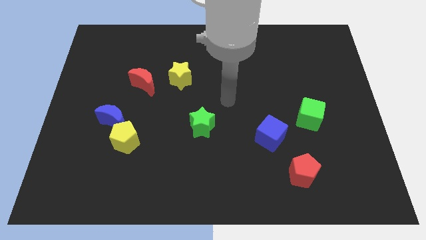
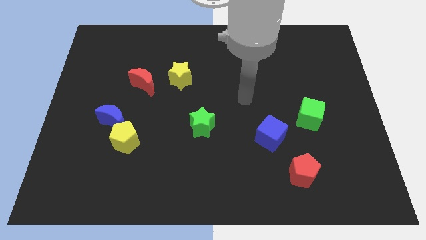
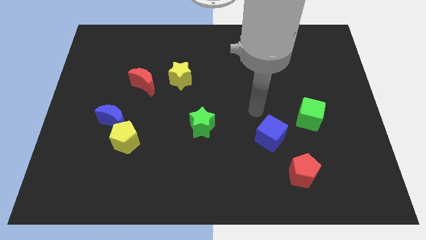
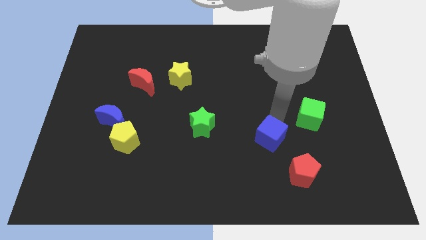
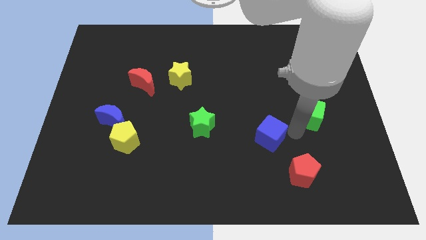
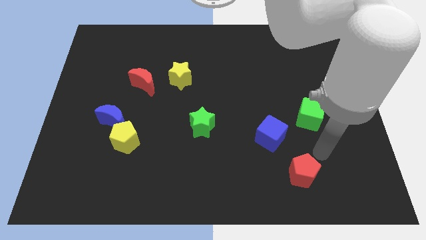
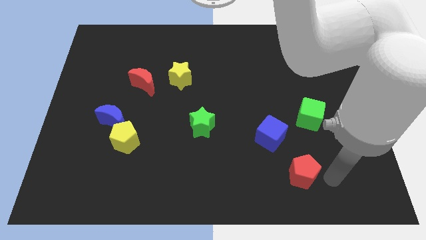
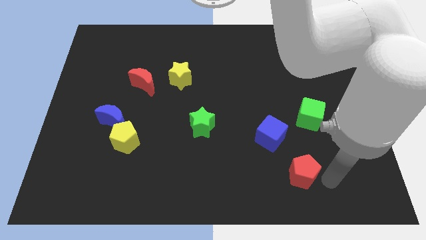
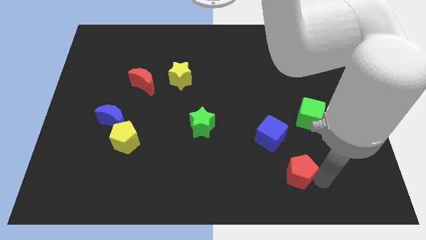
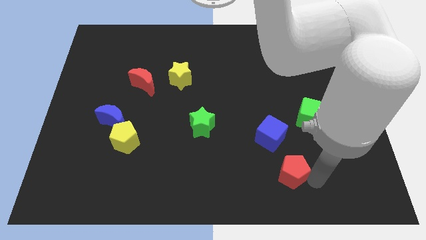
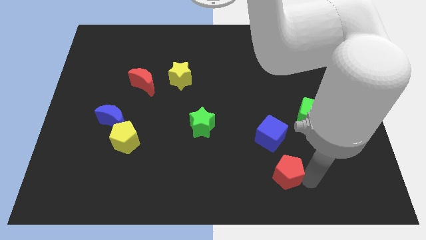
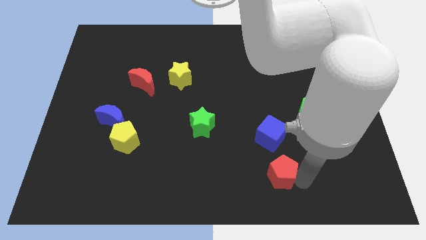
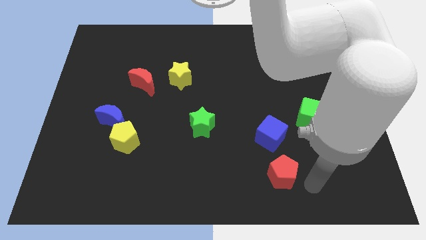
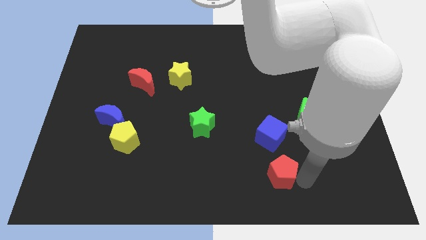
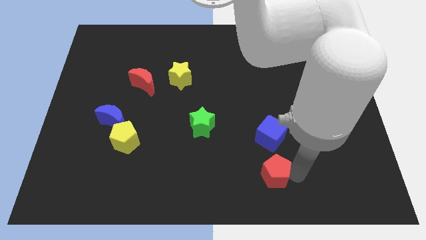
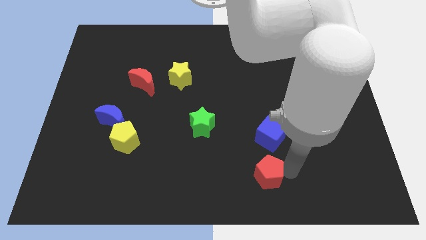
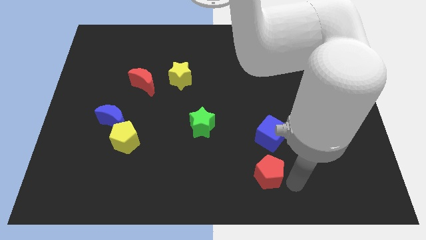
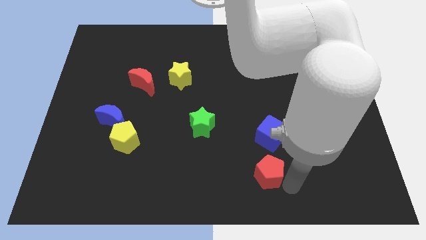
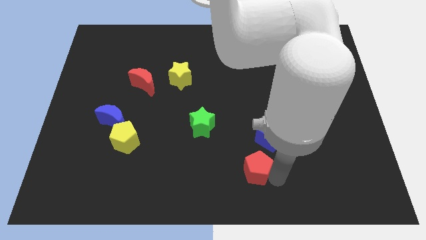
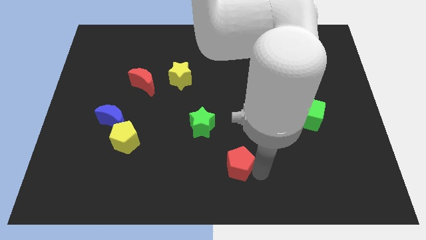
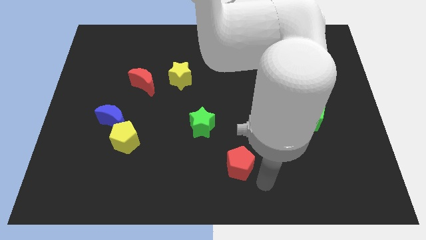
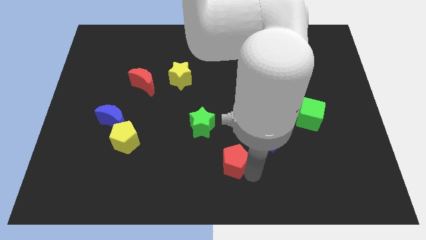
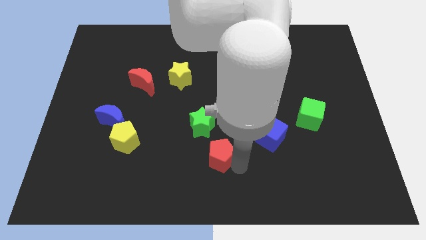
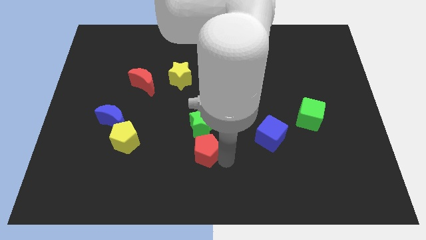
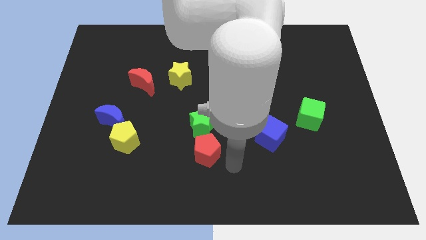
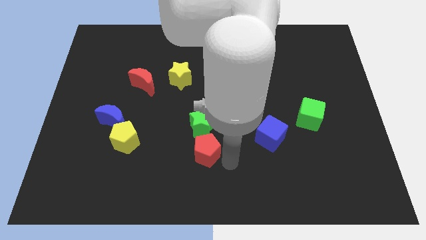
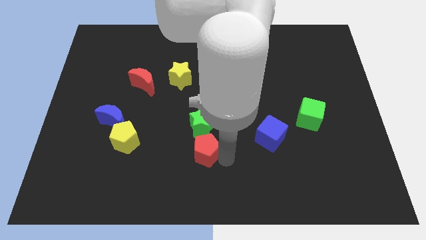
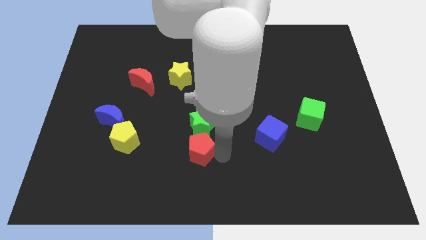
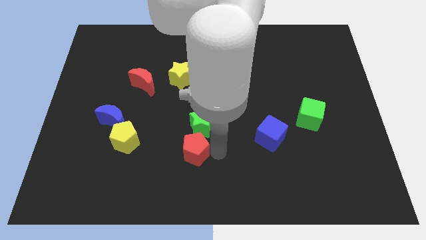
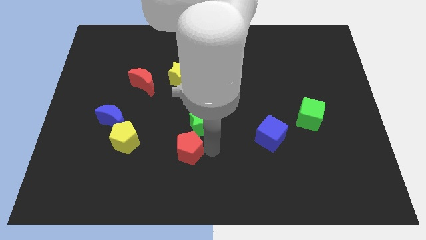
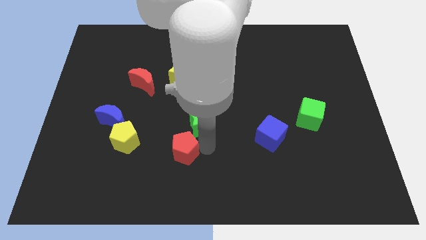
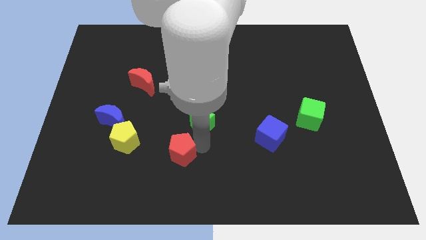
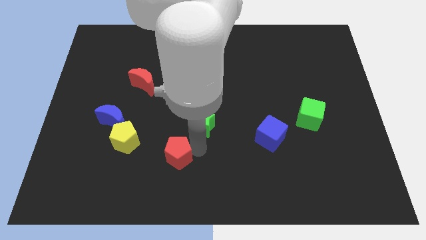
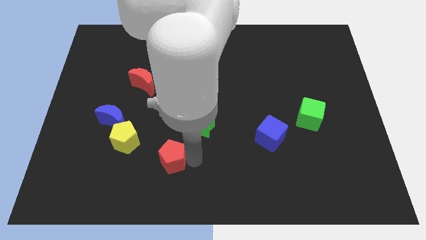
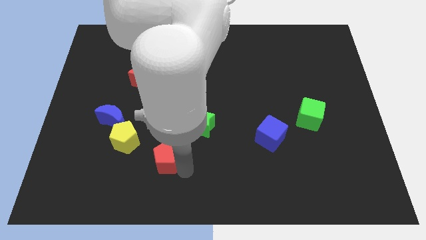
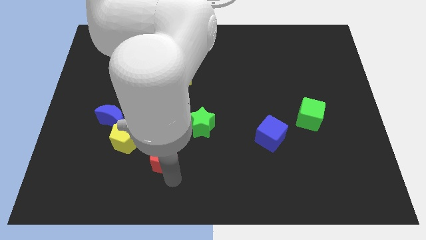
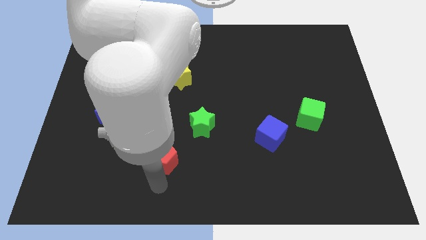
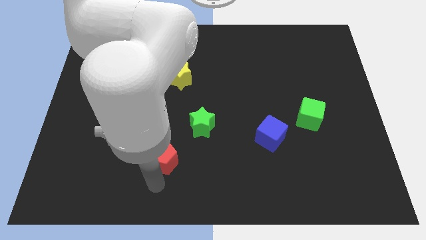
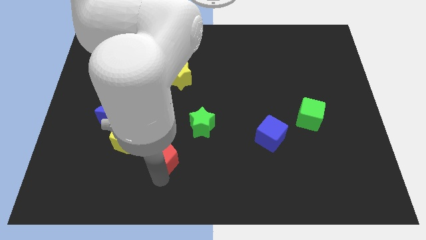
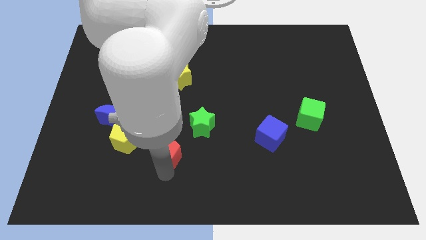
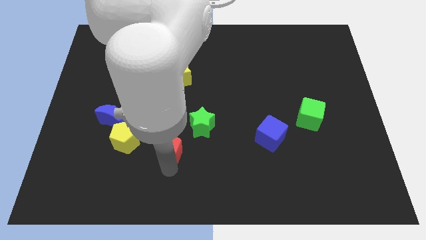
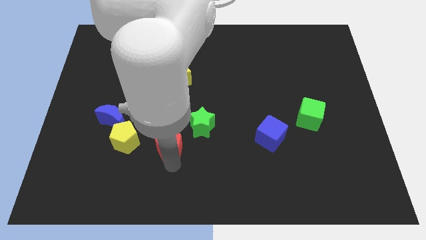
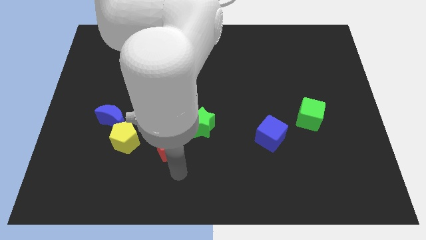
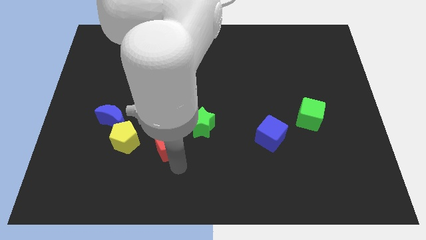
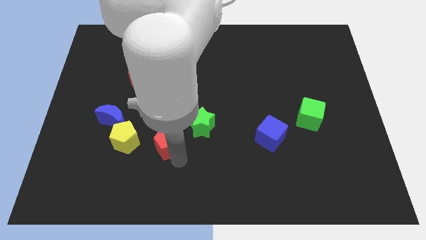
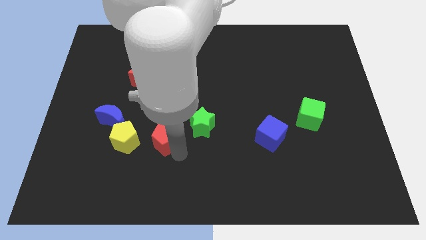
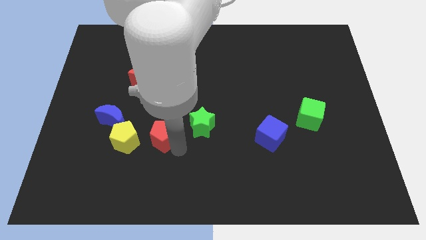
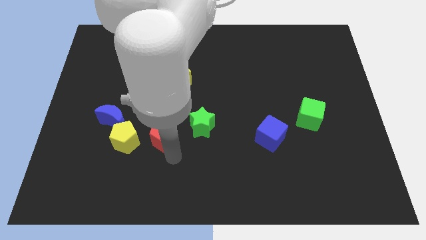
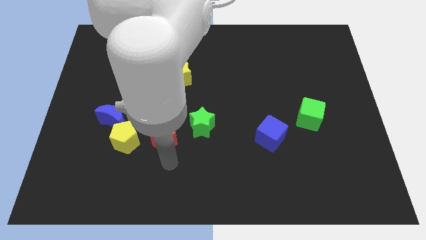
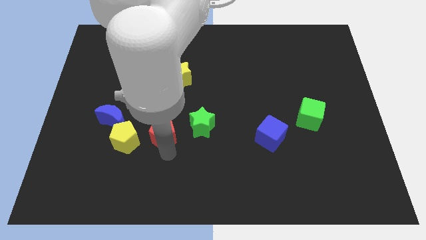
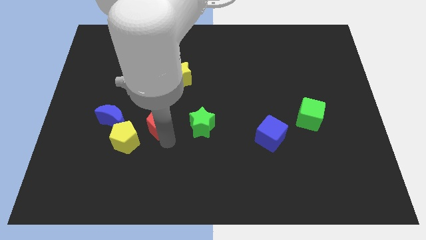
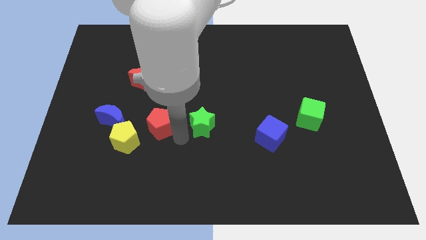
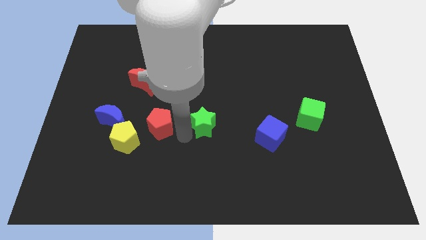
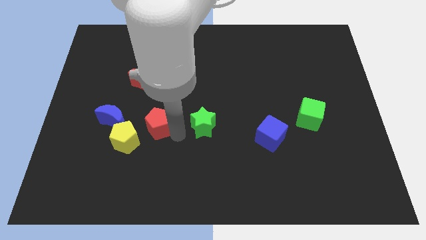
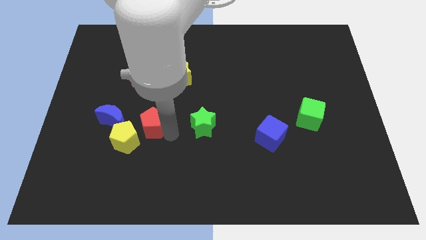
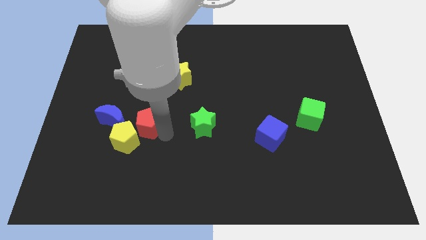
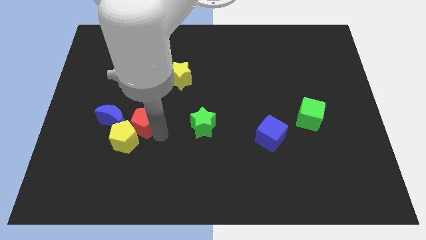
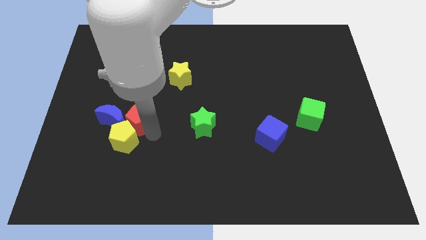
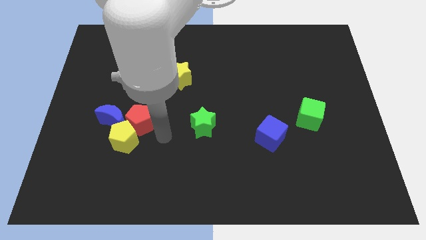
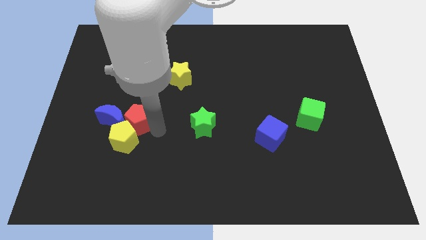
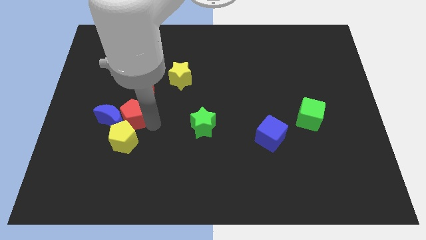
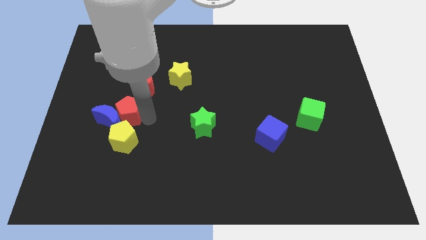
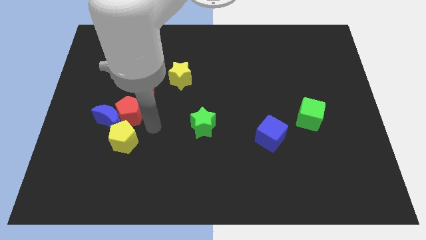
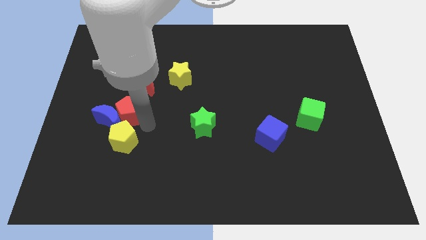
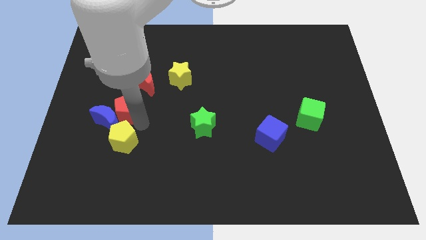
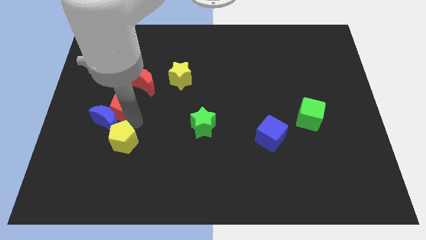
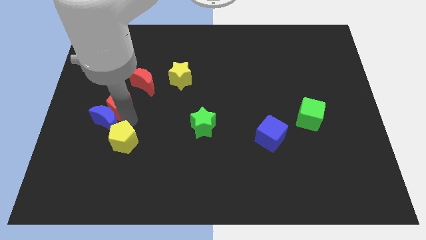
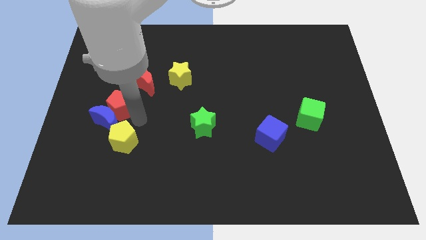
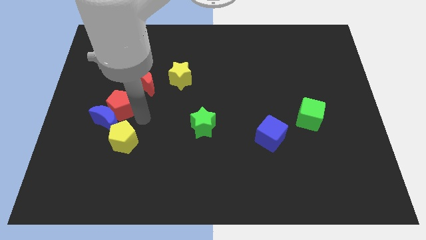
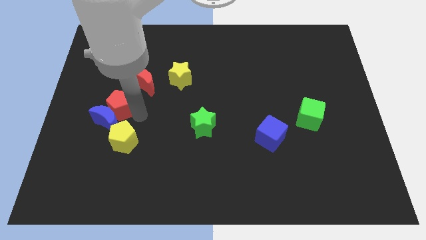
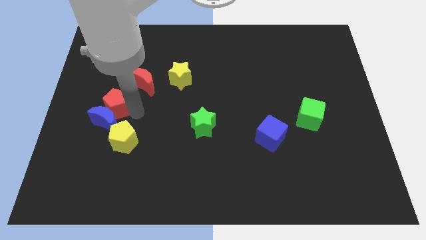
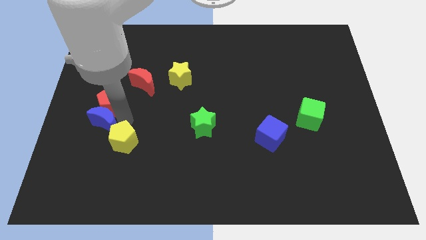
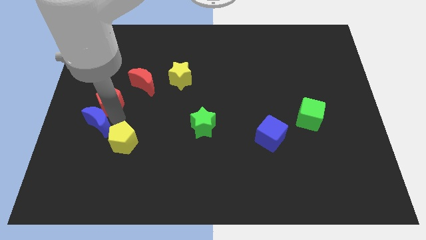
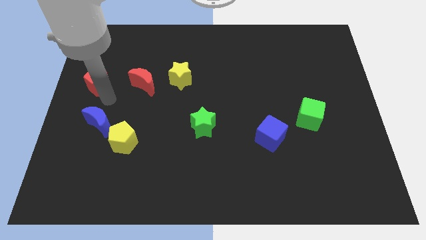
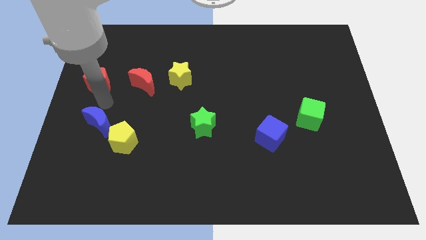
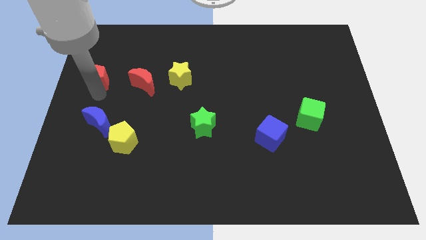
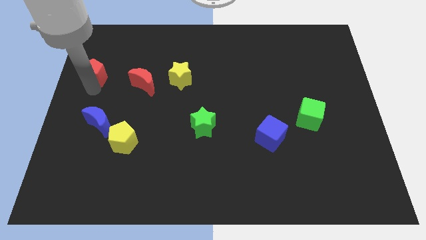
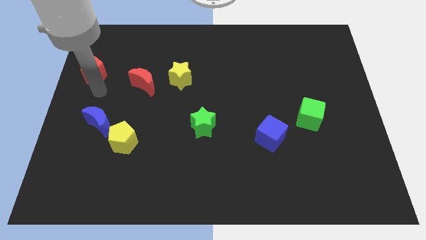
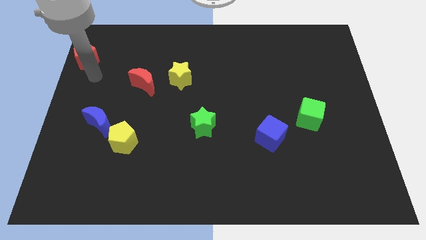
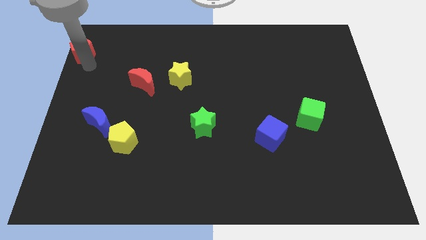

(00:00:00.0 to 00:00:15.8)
slide the red pentagon to the top left of the board
